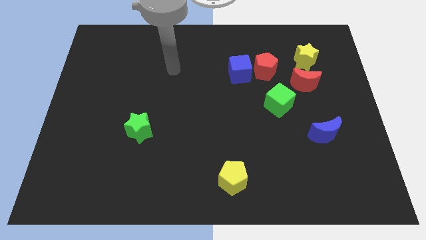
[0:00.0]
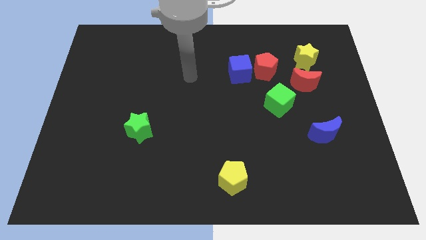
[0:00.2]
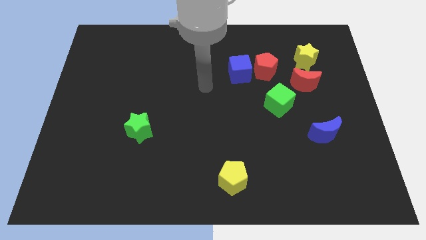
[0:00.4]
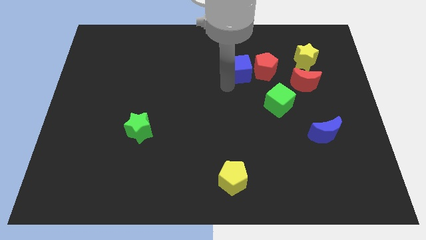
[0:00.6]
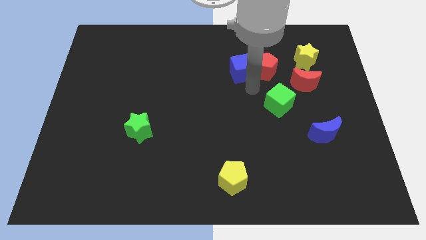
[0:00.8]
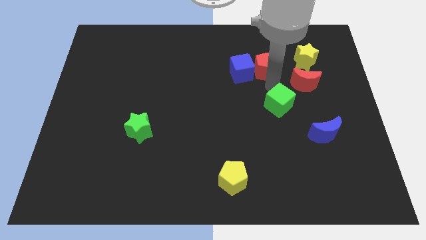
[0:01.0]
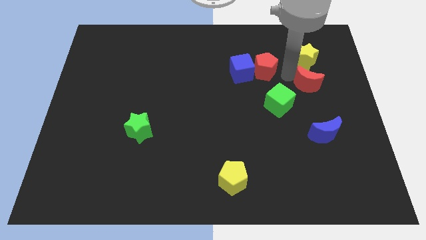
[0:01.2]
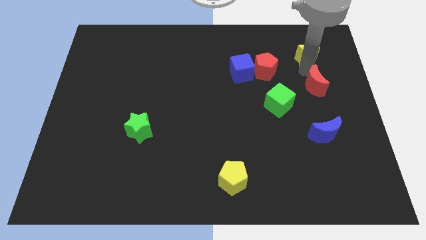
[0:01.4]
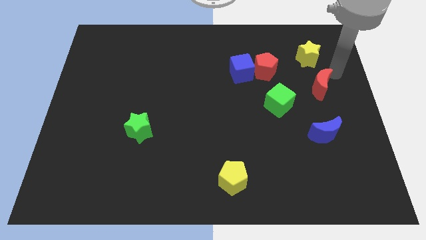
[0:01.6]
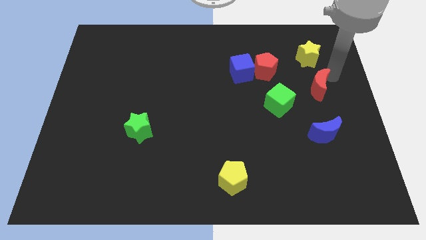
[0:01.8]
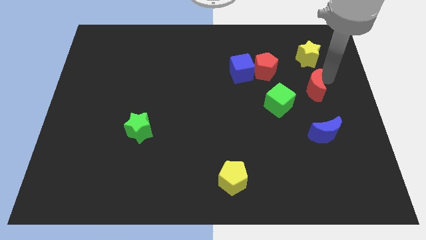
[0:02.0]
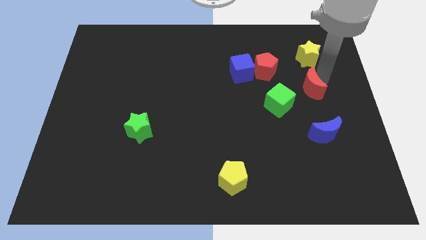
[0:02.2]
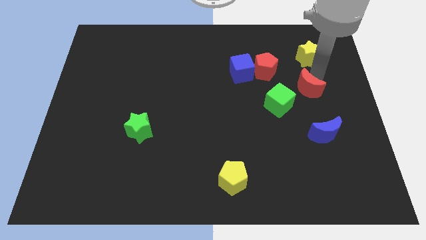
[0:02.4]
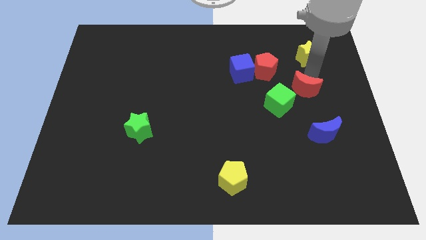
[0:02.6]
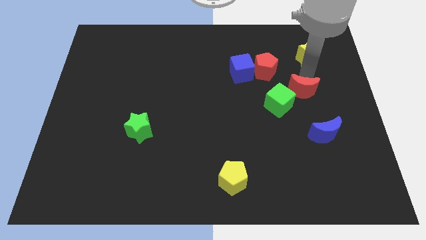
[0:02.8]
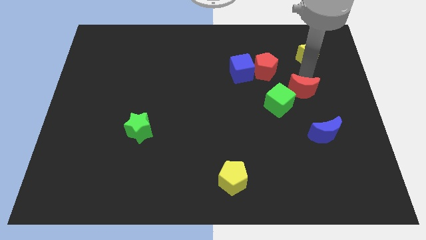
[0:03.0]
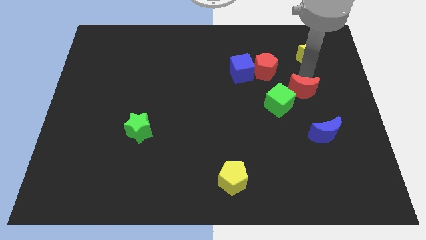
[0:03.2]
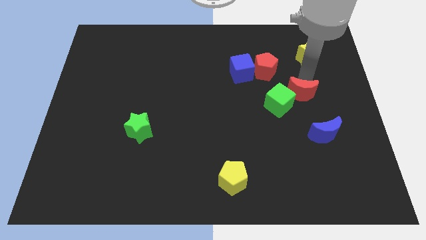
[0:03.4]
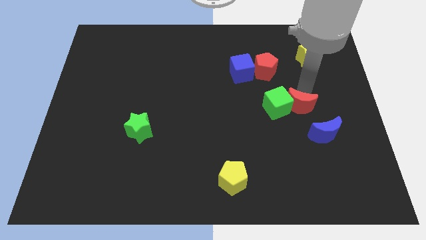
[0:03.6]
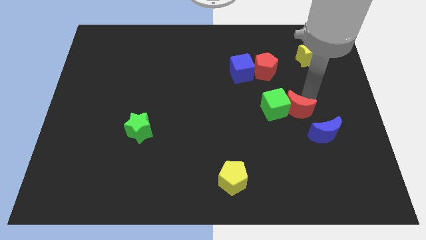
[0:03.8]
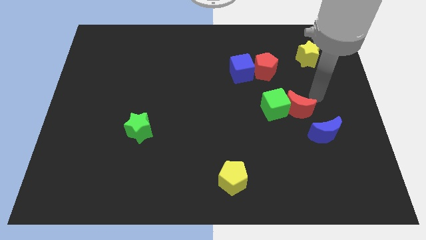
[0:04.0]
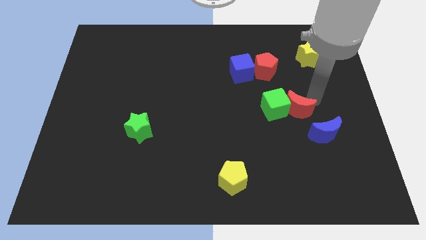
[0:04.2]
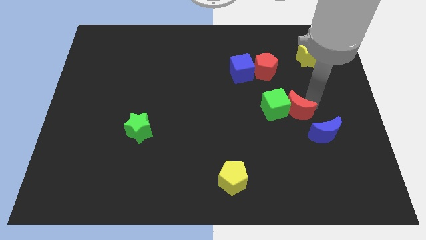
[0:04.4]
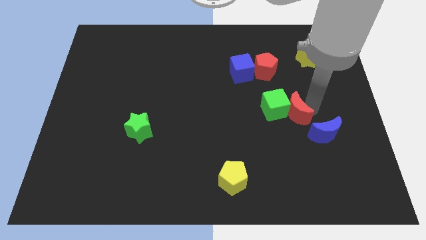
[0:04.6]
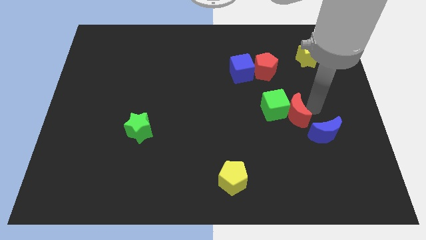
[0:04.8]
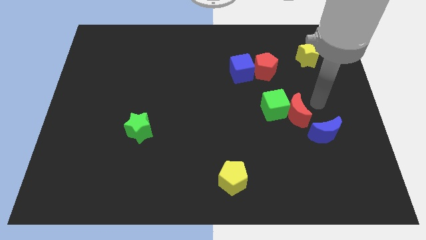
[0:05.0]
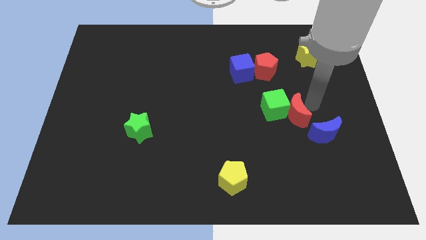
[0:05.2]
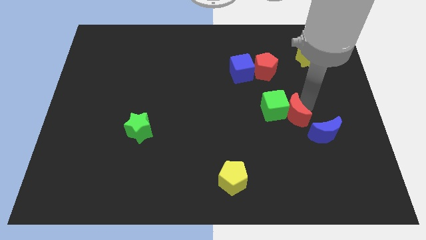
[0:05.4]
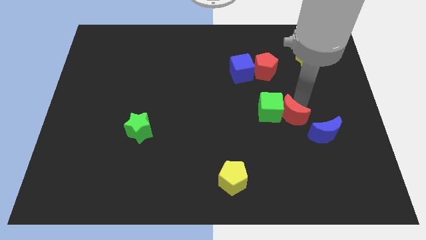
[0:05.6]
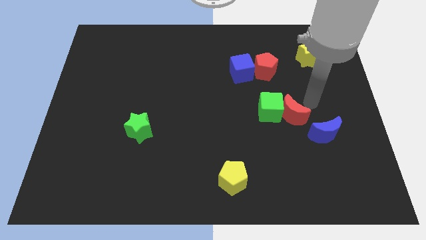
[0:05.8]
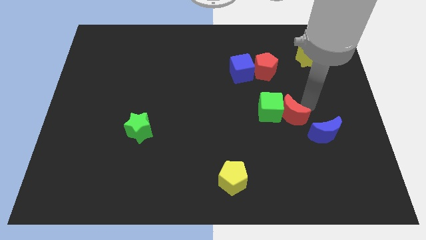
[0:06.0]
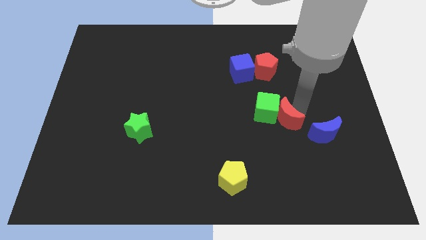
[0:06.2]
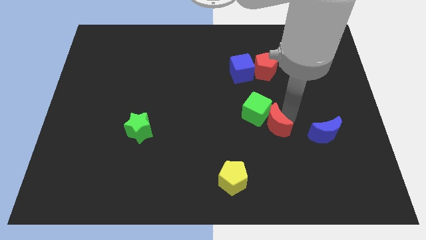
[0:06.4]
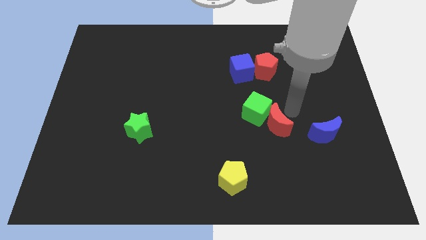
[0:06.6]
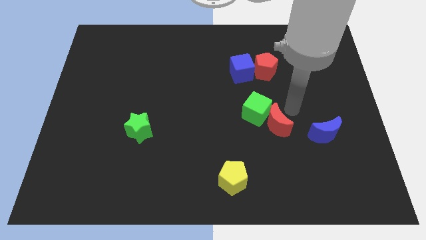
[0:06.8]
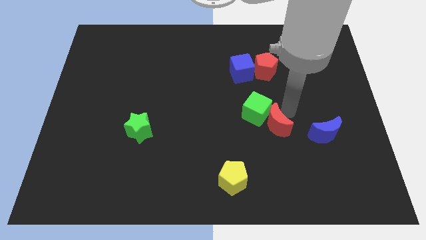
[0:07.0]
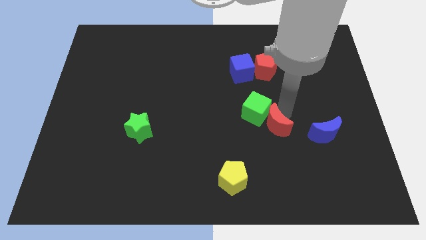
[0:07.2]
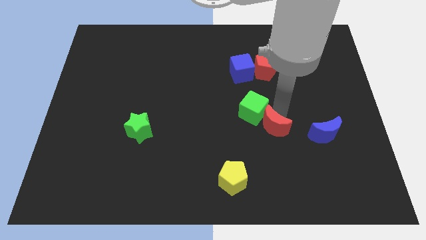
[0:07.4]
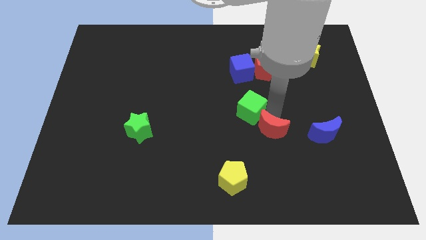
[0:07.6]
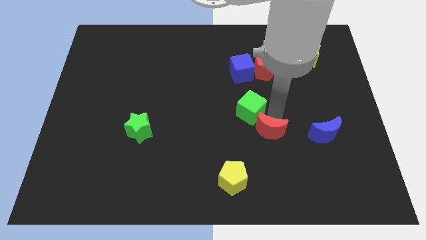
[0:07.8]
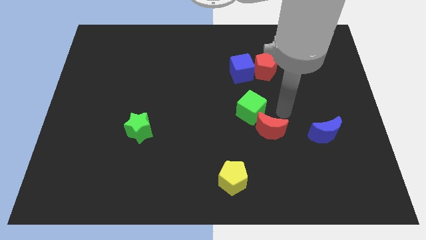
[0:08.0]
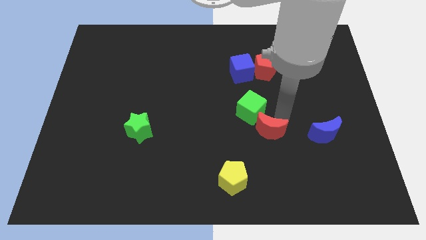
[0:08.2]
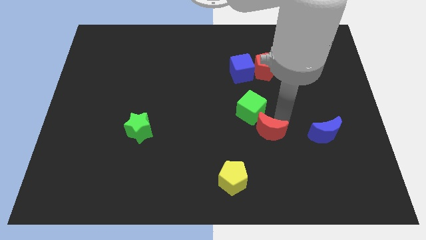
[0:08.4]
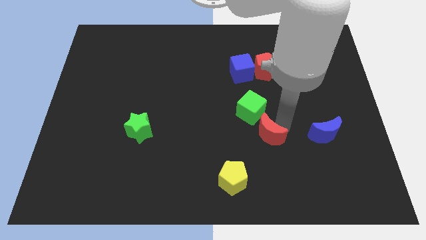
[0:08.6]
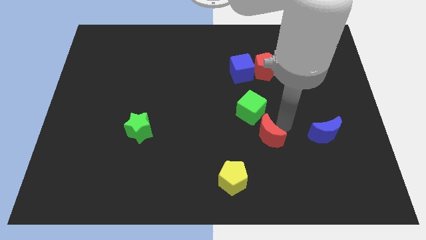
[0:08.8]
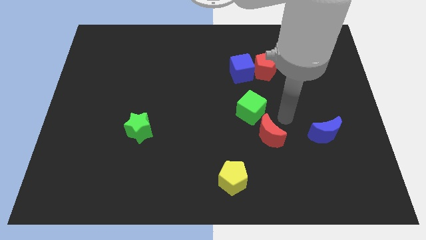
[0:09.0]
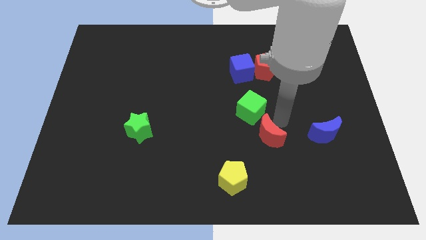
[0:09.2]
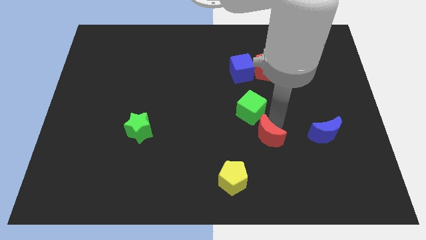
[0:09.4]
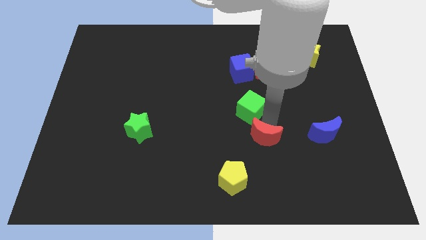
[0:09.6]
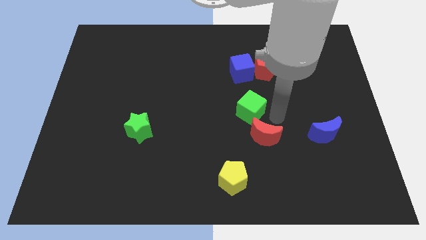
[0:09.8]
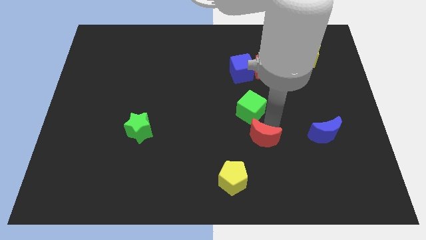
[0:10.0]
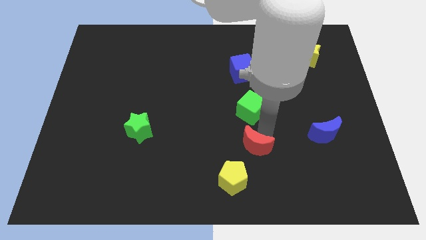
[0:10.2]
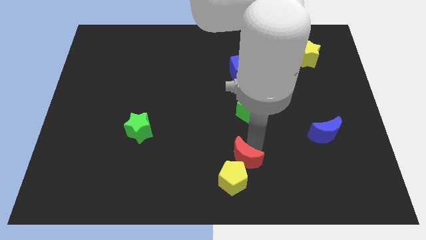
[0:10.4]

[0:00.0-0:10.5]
move the red moon towards the yellow pentagon
